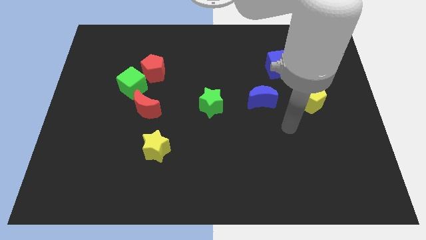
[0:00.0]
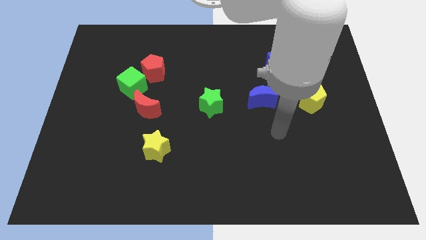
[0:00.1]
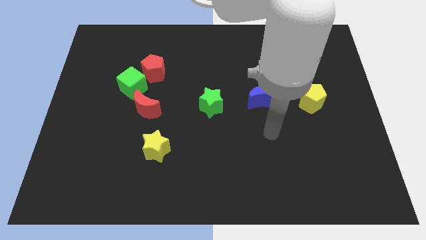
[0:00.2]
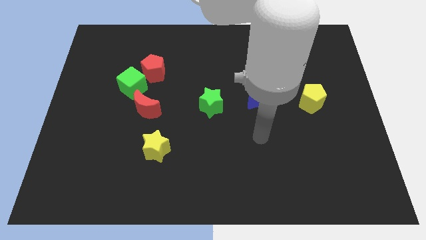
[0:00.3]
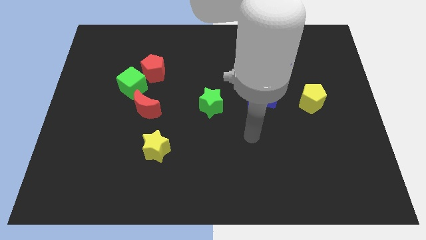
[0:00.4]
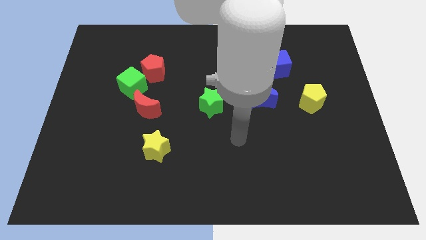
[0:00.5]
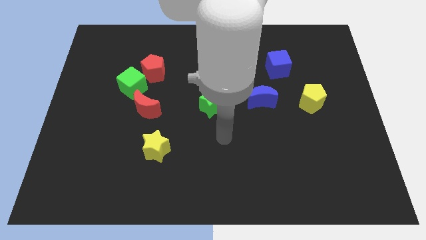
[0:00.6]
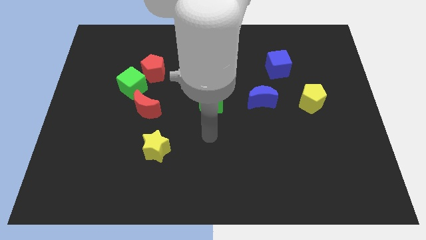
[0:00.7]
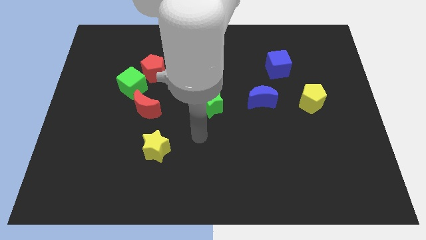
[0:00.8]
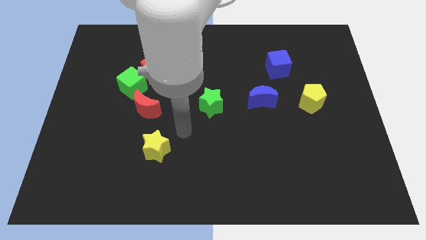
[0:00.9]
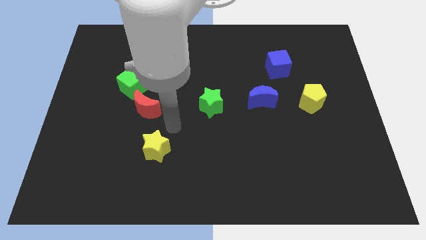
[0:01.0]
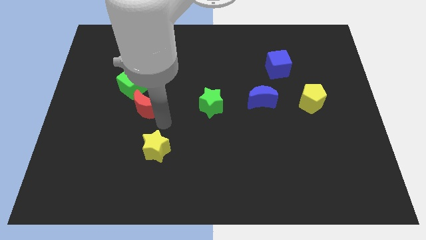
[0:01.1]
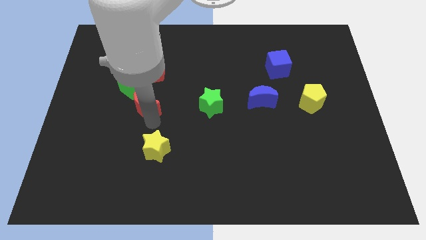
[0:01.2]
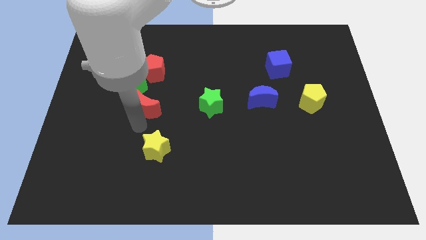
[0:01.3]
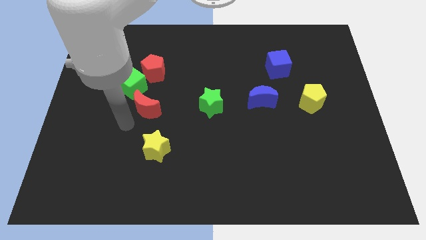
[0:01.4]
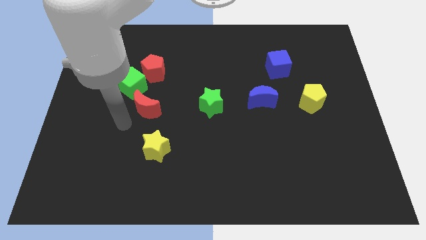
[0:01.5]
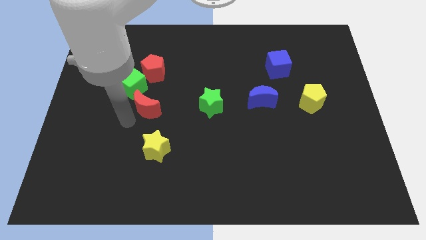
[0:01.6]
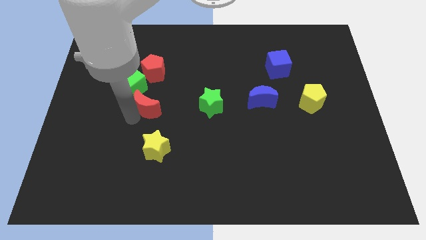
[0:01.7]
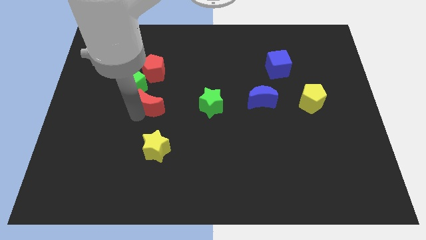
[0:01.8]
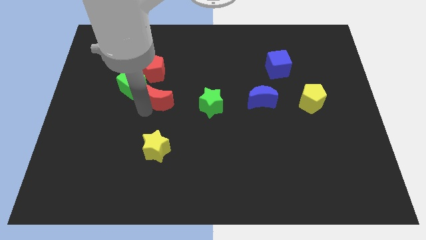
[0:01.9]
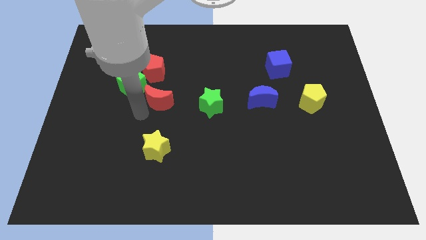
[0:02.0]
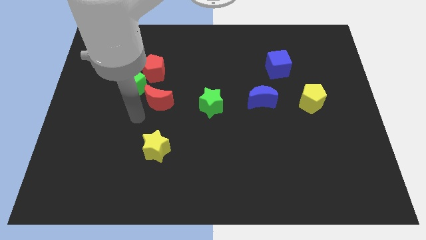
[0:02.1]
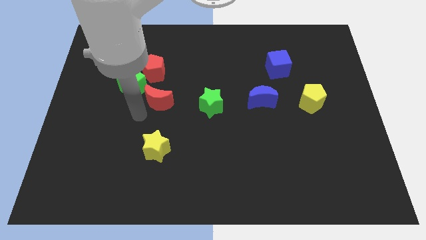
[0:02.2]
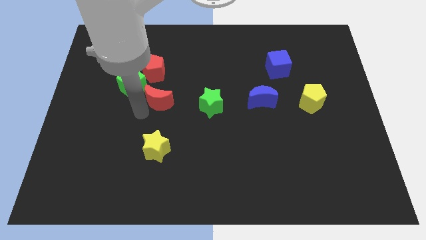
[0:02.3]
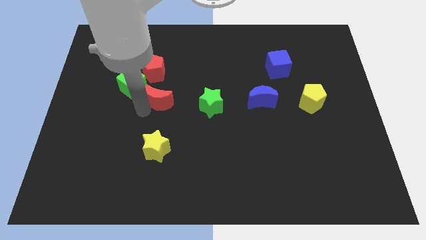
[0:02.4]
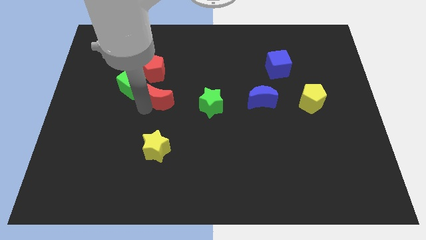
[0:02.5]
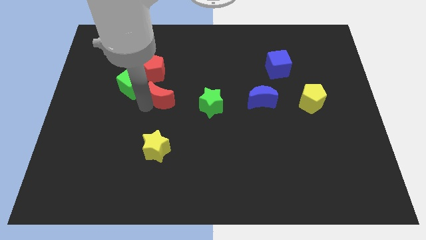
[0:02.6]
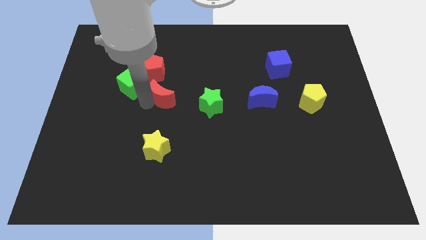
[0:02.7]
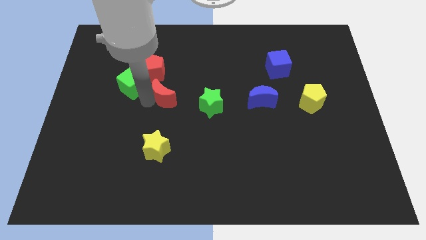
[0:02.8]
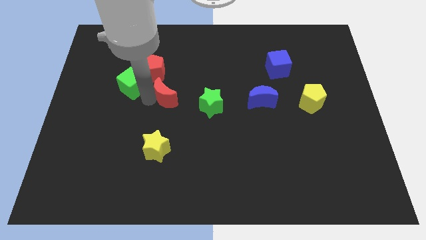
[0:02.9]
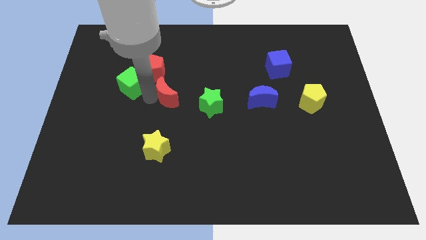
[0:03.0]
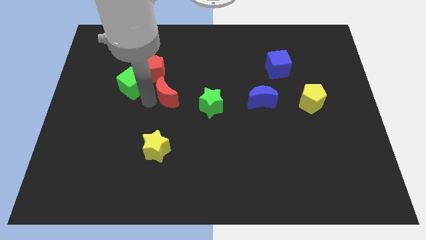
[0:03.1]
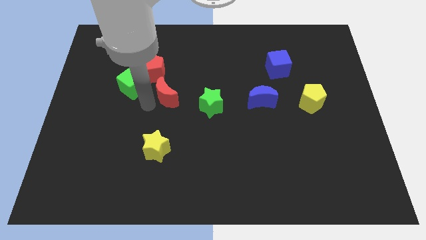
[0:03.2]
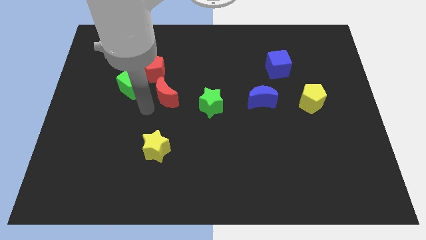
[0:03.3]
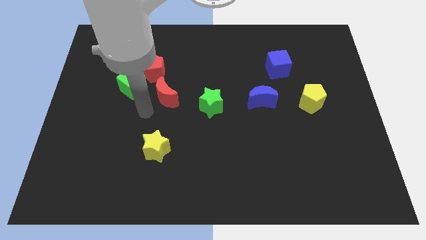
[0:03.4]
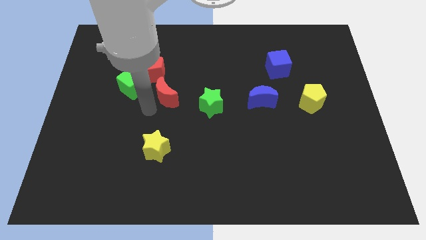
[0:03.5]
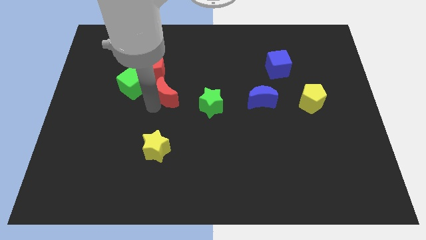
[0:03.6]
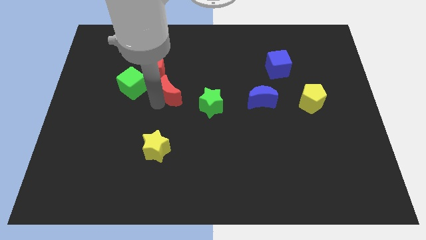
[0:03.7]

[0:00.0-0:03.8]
slide the red moon up and to the right slightly

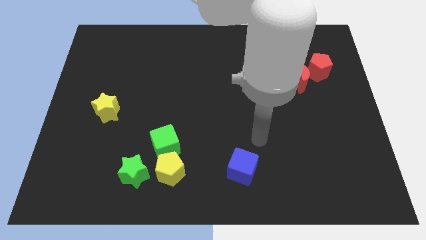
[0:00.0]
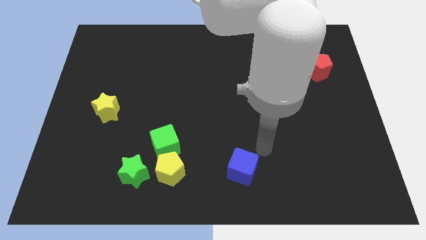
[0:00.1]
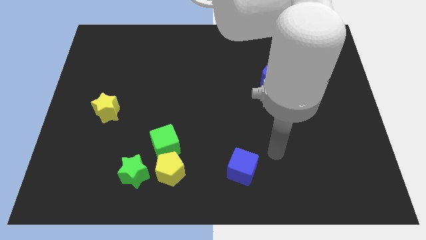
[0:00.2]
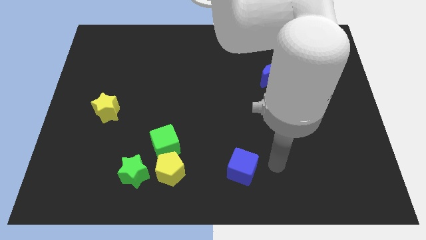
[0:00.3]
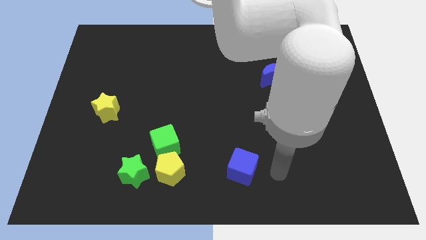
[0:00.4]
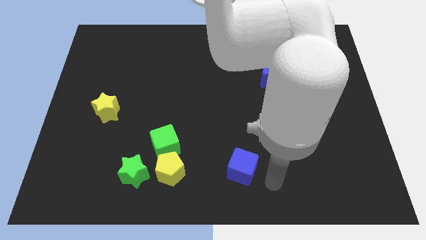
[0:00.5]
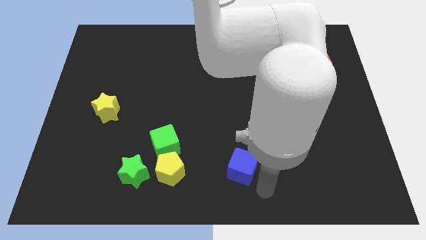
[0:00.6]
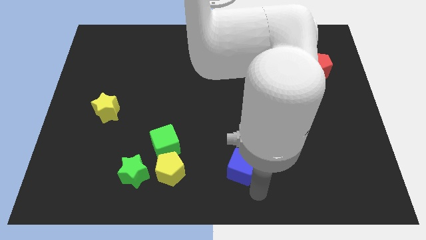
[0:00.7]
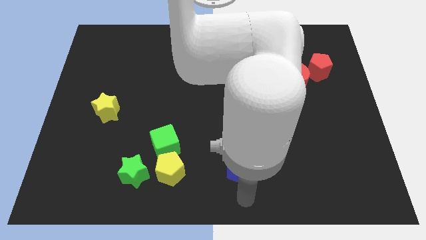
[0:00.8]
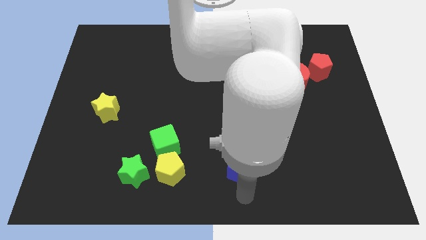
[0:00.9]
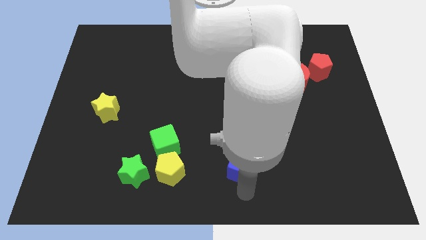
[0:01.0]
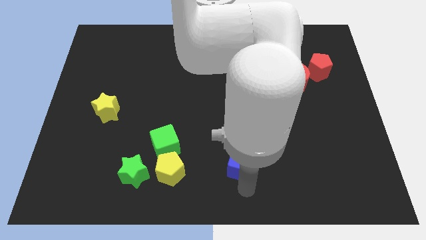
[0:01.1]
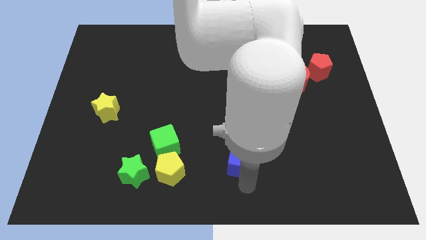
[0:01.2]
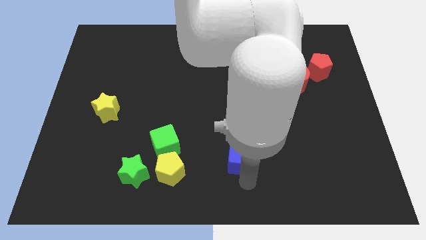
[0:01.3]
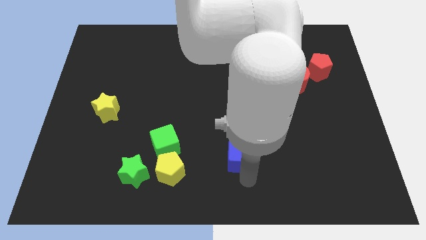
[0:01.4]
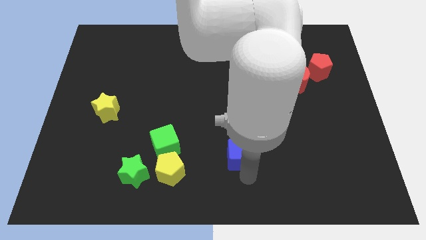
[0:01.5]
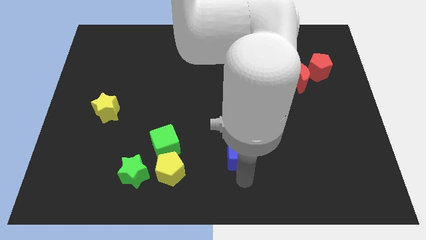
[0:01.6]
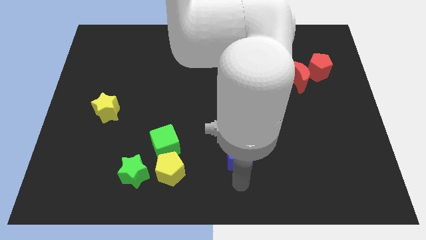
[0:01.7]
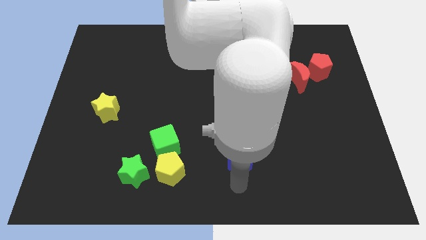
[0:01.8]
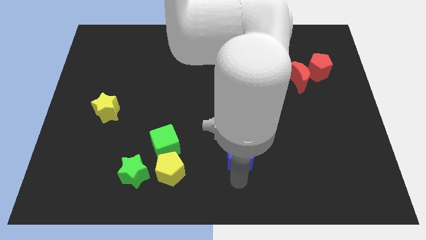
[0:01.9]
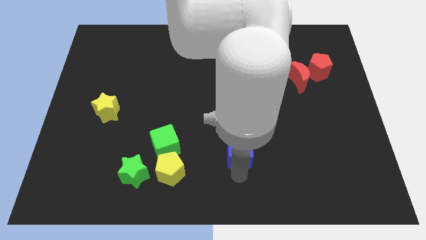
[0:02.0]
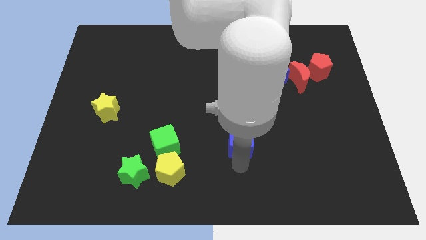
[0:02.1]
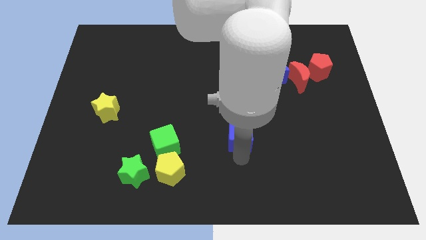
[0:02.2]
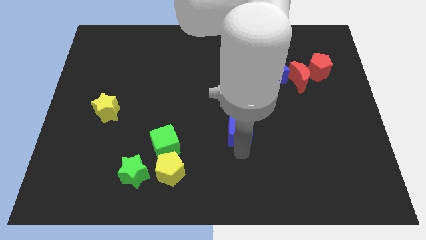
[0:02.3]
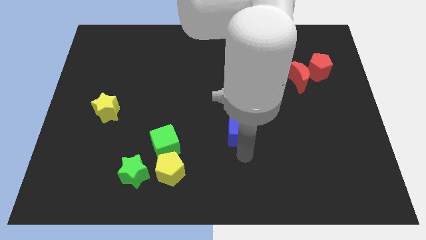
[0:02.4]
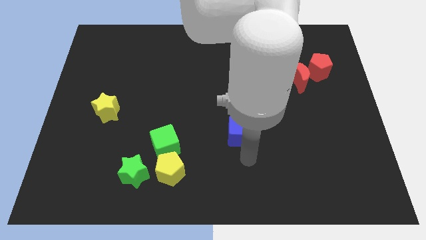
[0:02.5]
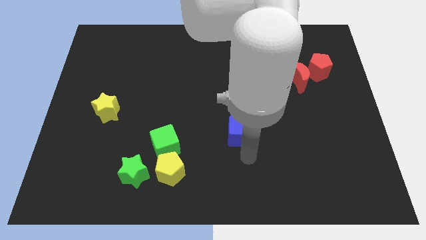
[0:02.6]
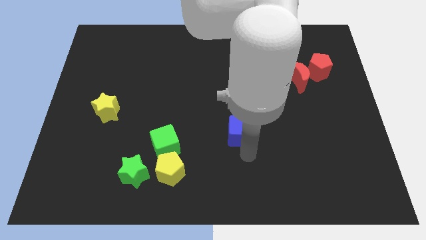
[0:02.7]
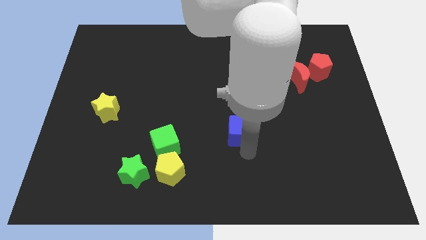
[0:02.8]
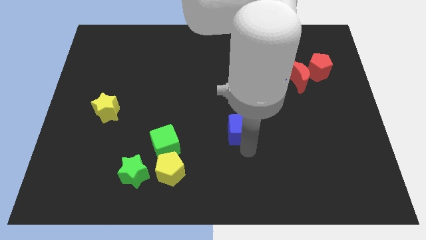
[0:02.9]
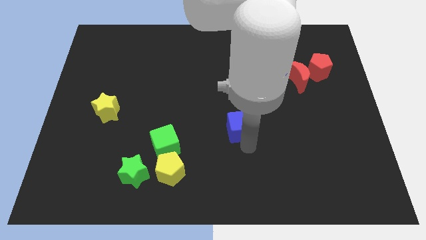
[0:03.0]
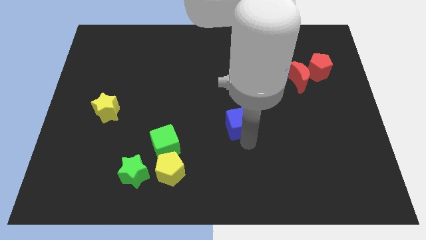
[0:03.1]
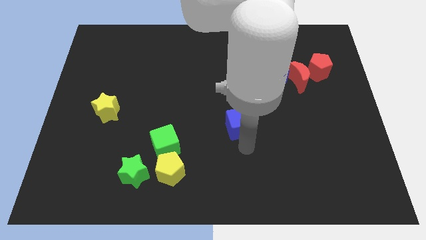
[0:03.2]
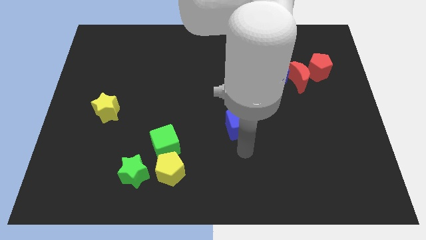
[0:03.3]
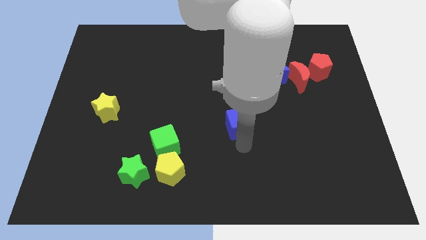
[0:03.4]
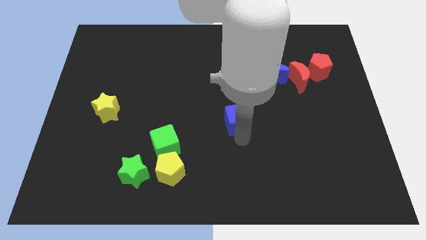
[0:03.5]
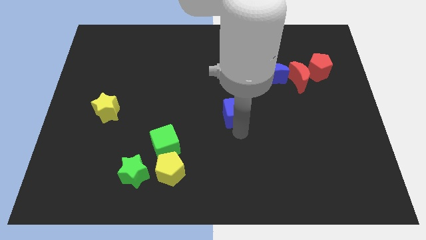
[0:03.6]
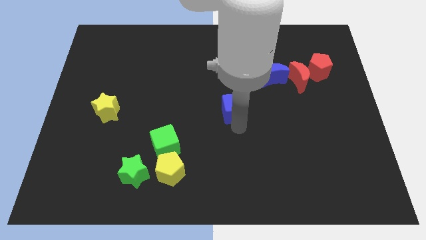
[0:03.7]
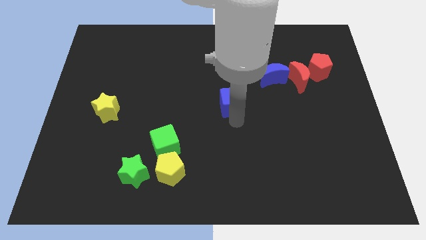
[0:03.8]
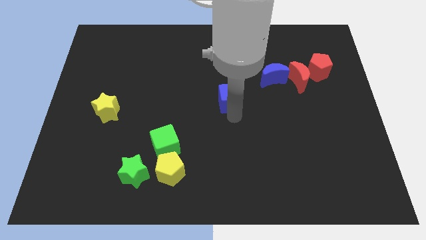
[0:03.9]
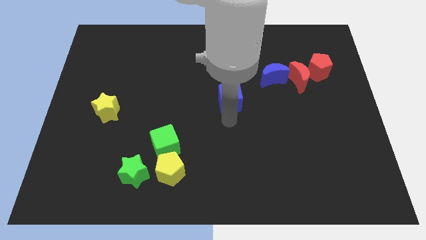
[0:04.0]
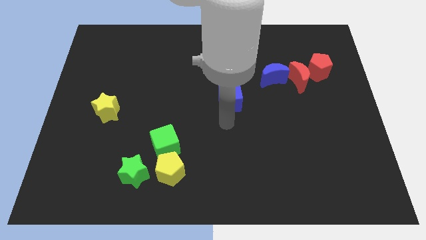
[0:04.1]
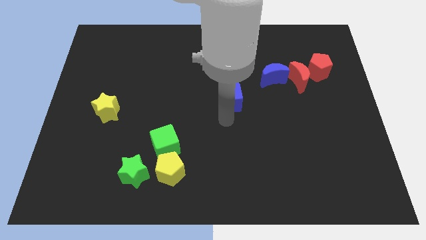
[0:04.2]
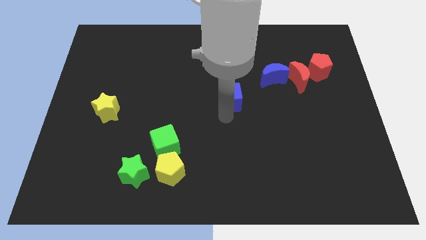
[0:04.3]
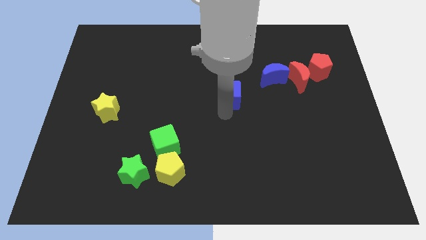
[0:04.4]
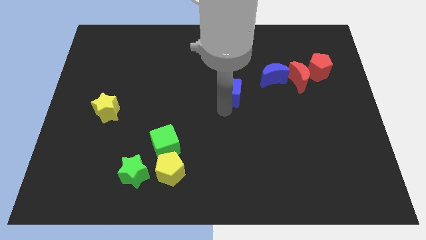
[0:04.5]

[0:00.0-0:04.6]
push the blue cube up
